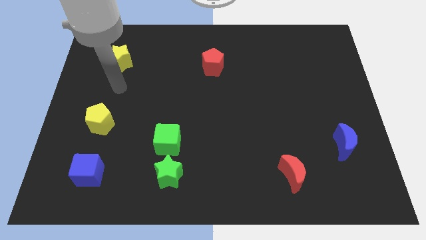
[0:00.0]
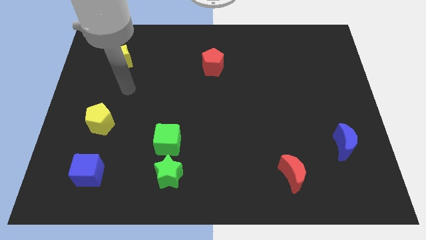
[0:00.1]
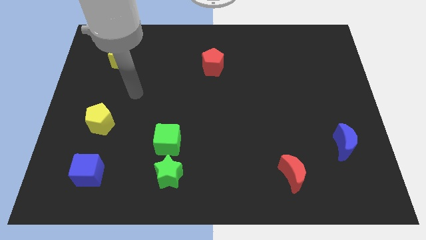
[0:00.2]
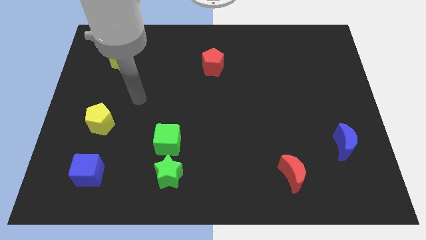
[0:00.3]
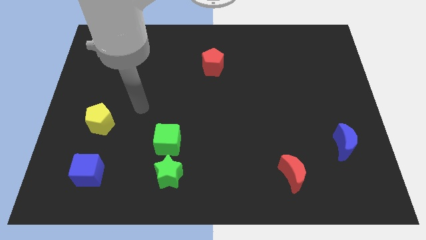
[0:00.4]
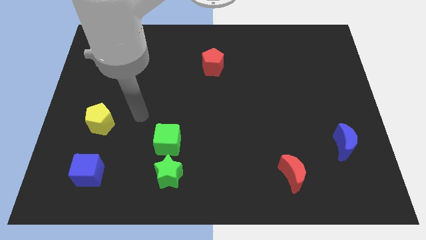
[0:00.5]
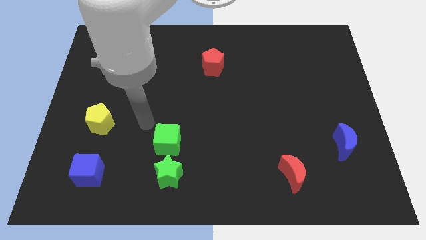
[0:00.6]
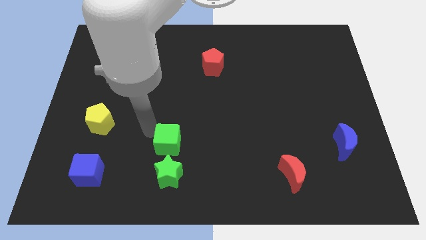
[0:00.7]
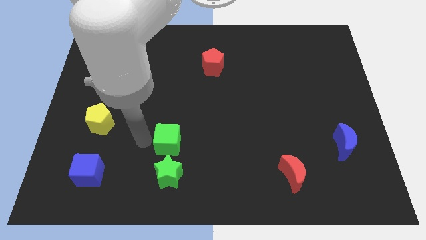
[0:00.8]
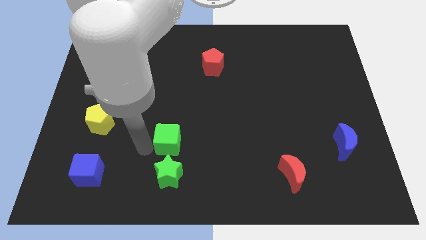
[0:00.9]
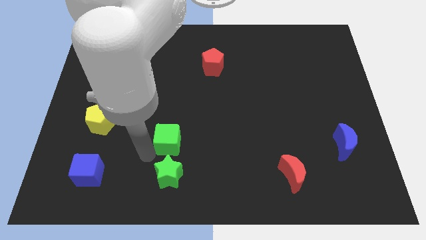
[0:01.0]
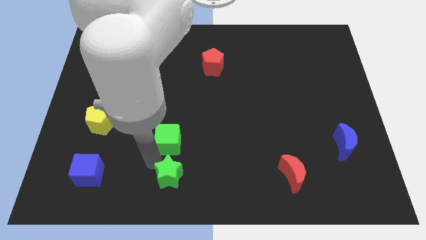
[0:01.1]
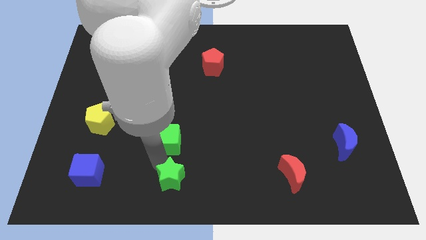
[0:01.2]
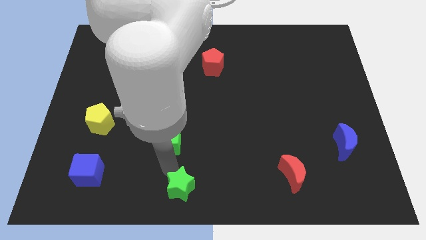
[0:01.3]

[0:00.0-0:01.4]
separate the green cube from the green star

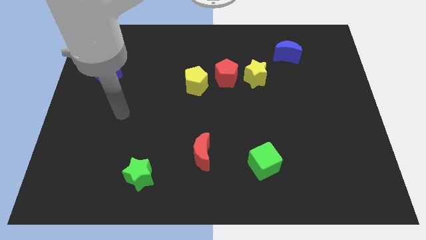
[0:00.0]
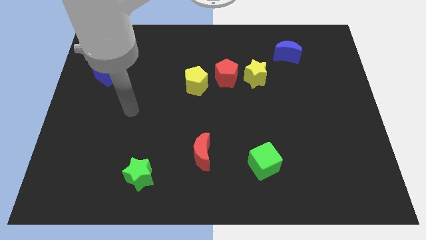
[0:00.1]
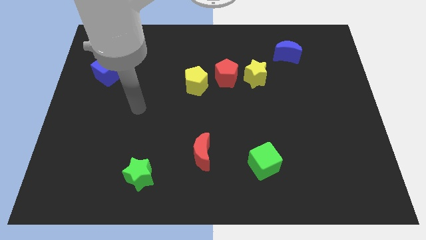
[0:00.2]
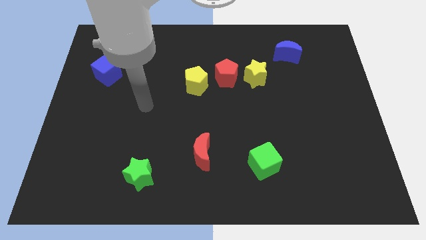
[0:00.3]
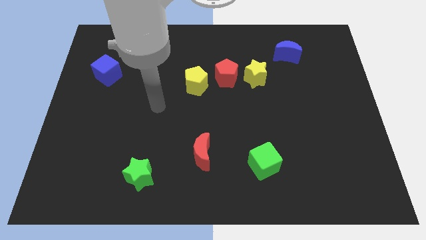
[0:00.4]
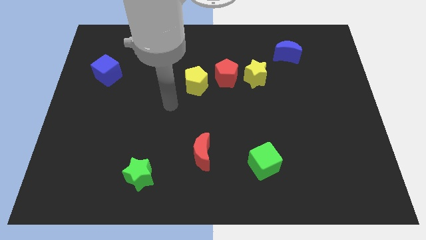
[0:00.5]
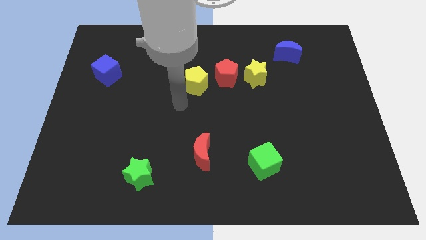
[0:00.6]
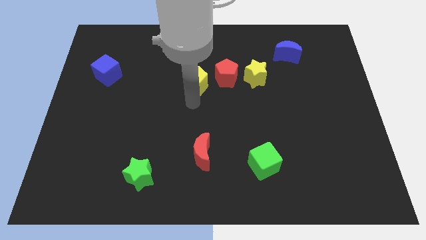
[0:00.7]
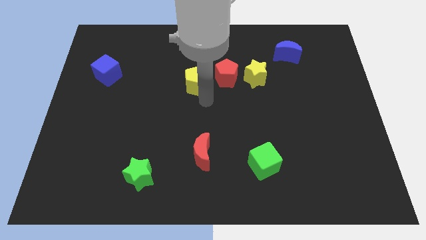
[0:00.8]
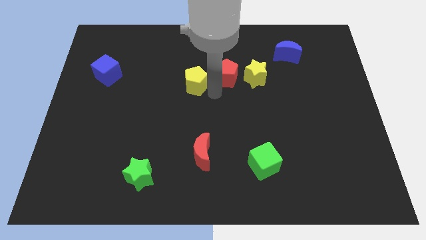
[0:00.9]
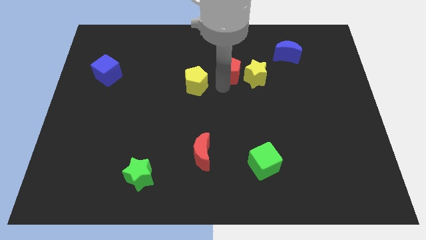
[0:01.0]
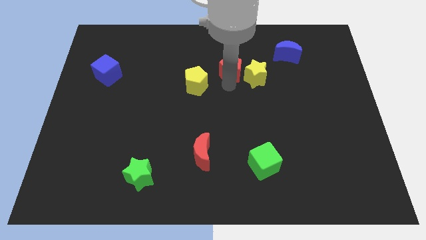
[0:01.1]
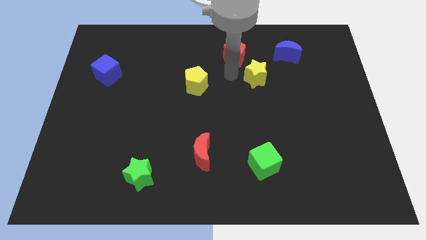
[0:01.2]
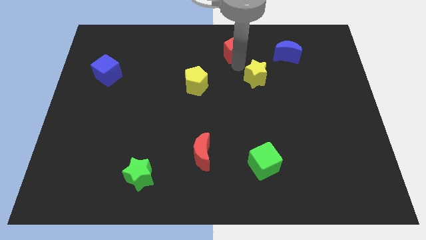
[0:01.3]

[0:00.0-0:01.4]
separate the yellow star from the red pentagon

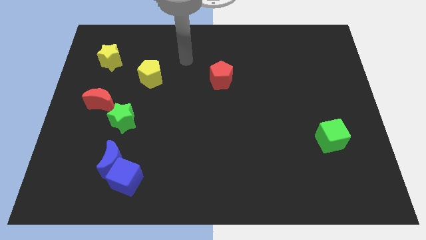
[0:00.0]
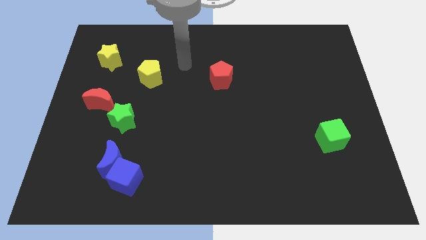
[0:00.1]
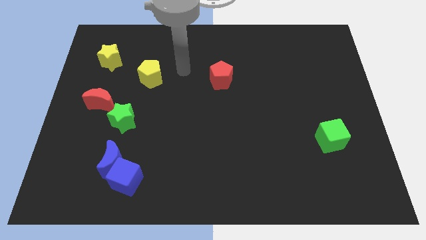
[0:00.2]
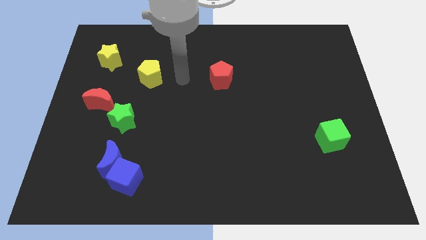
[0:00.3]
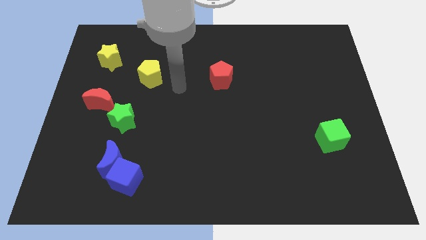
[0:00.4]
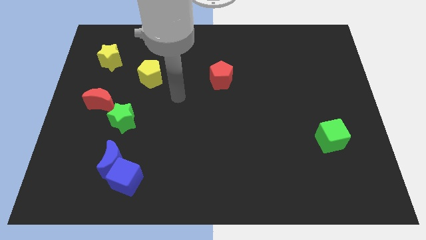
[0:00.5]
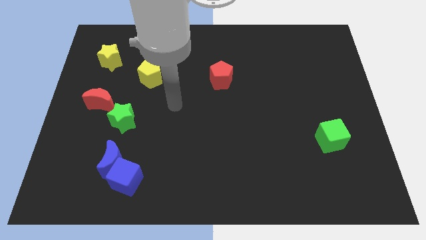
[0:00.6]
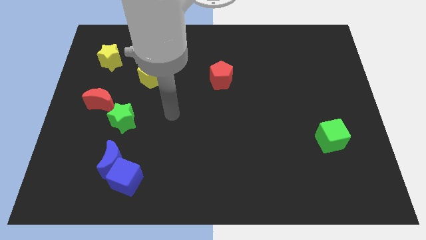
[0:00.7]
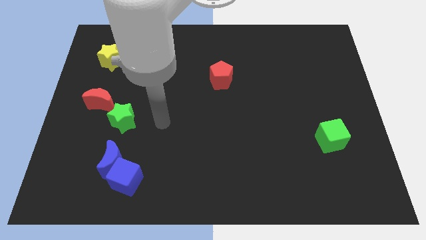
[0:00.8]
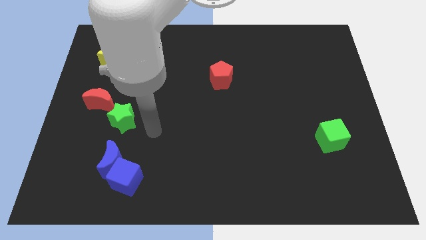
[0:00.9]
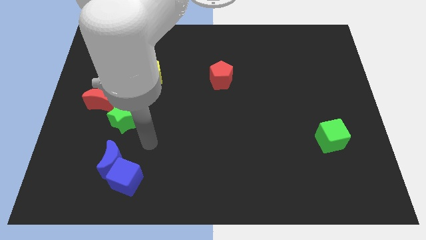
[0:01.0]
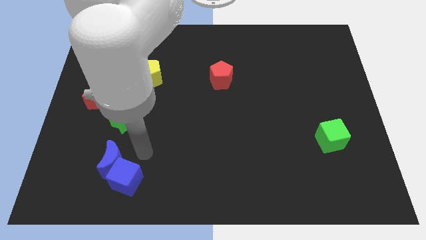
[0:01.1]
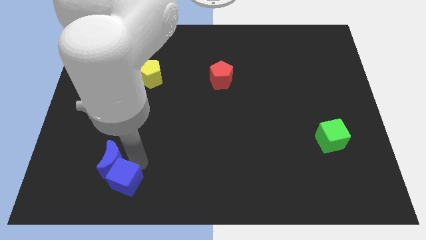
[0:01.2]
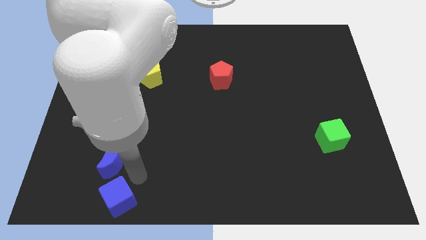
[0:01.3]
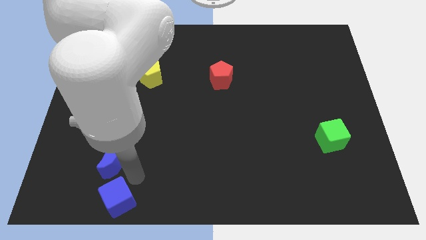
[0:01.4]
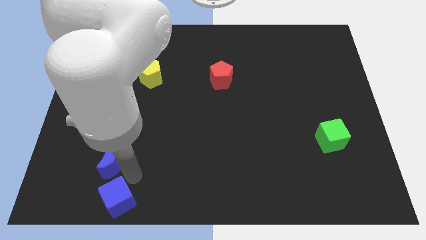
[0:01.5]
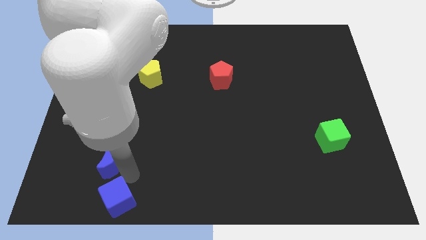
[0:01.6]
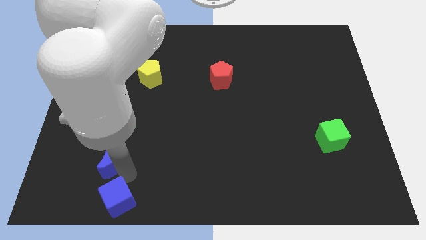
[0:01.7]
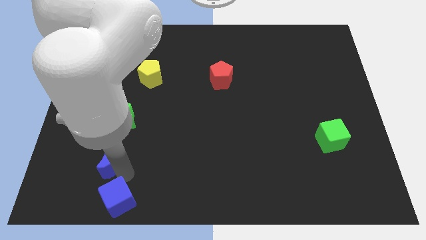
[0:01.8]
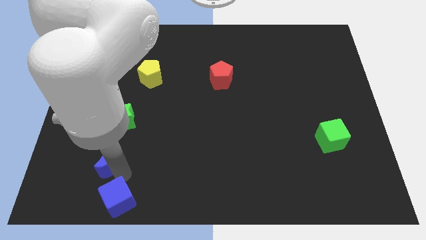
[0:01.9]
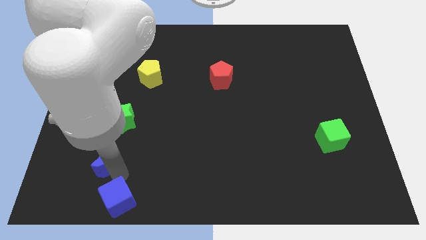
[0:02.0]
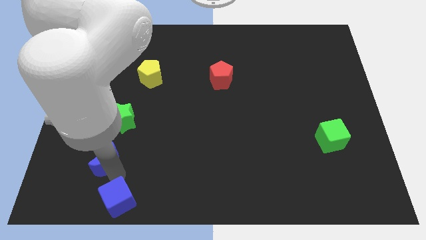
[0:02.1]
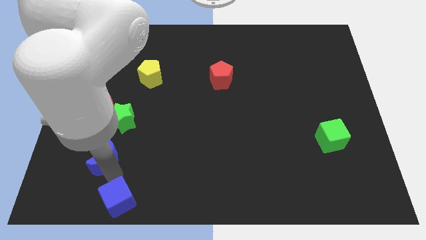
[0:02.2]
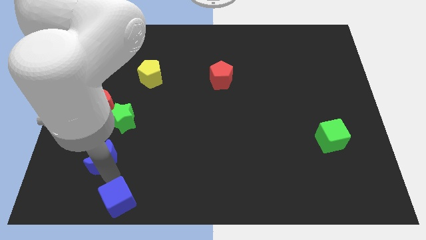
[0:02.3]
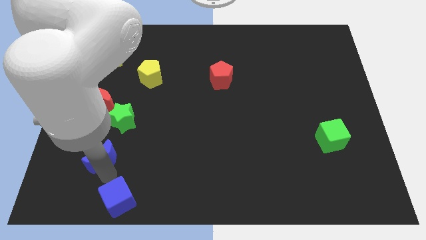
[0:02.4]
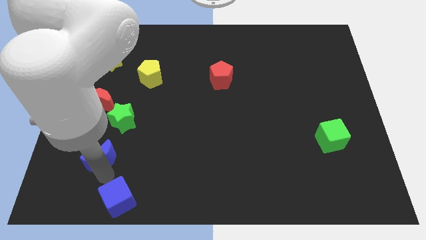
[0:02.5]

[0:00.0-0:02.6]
separate the blue moon from the blue cube

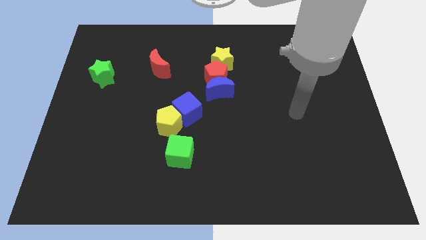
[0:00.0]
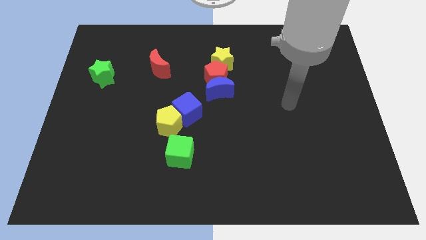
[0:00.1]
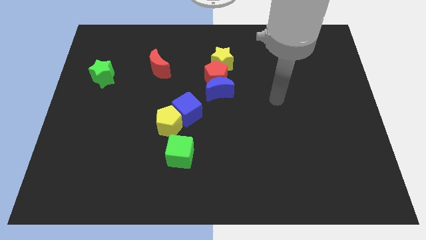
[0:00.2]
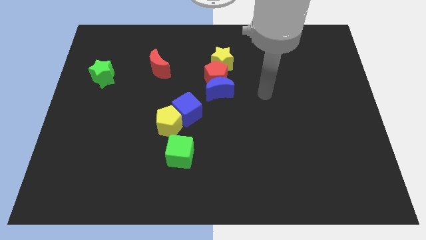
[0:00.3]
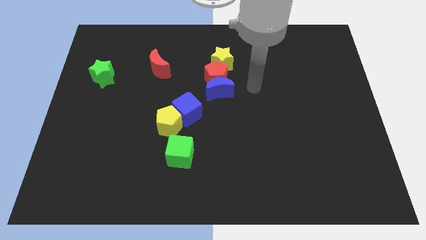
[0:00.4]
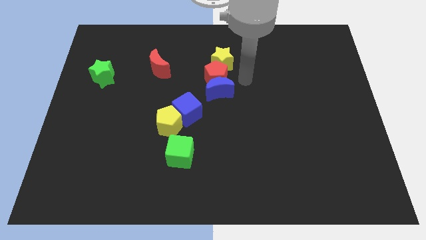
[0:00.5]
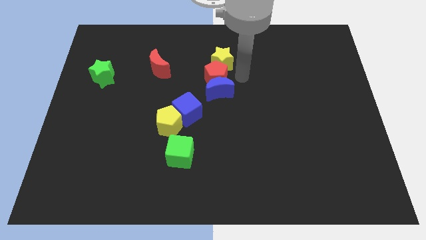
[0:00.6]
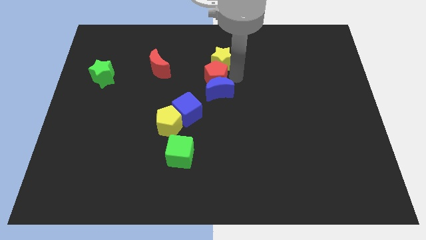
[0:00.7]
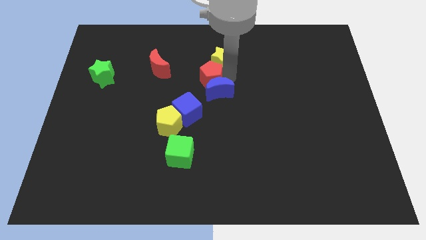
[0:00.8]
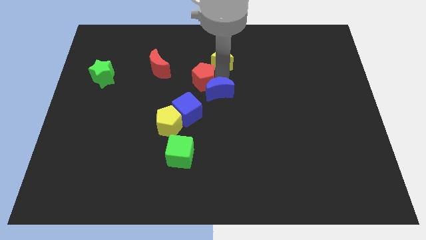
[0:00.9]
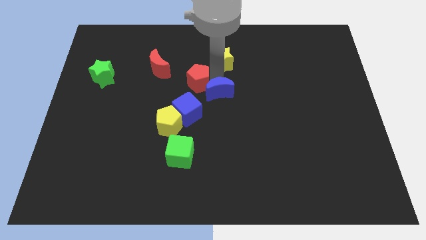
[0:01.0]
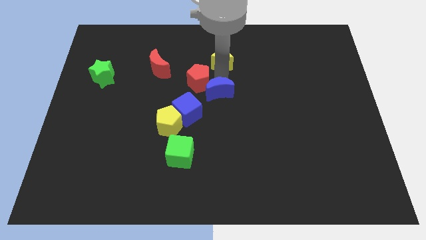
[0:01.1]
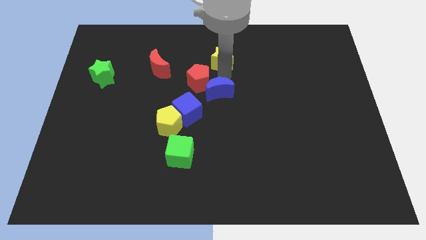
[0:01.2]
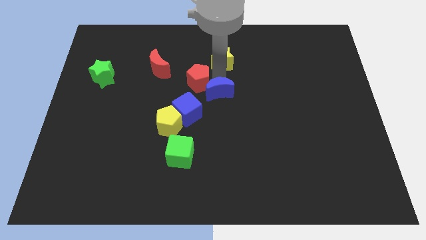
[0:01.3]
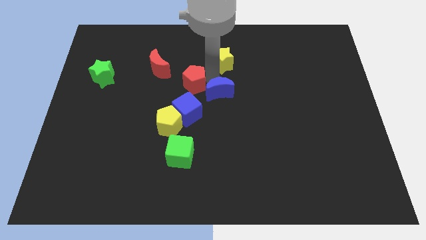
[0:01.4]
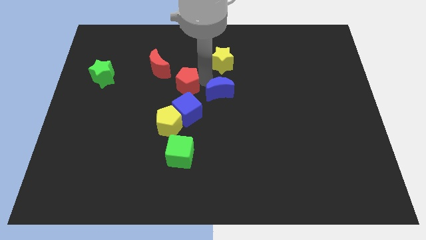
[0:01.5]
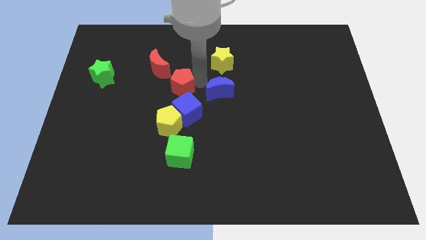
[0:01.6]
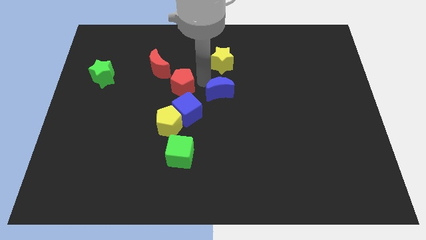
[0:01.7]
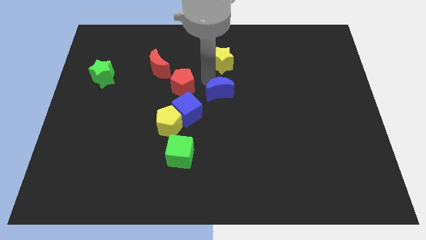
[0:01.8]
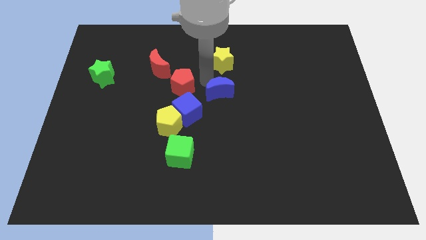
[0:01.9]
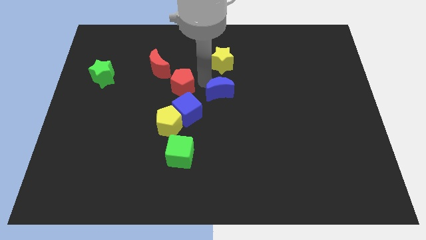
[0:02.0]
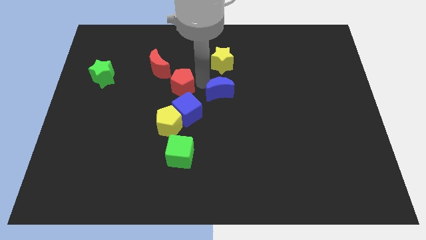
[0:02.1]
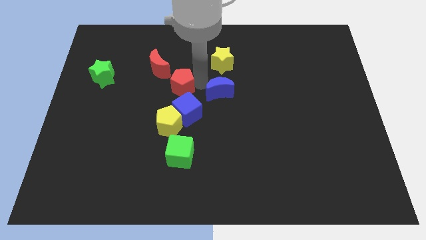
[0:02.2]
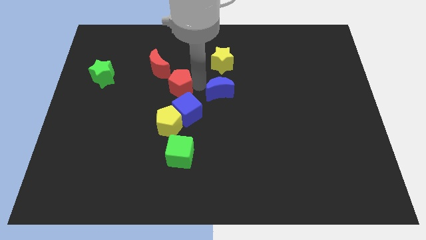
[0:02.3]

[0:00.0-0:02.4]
pull the red pentagon apart from the blue moon and yellow star

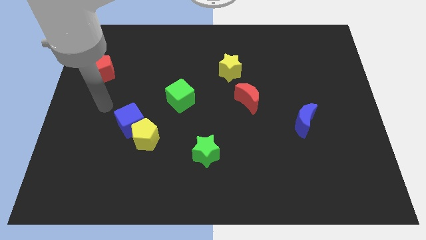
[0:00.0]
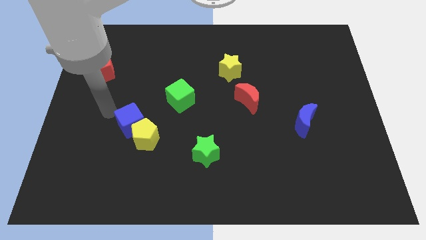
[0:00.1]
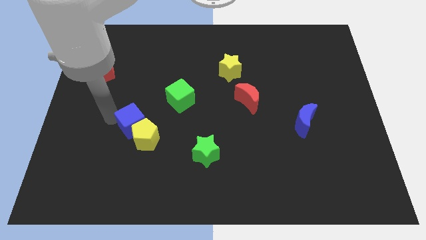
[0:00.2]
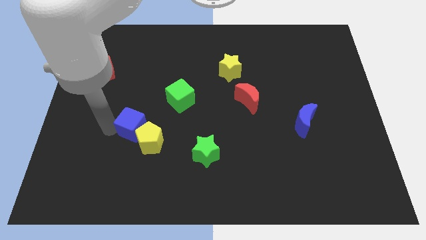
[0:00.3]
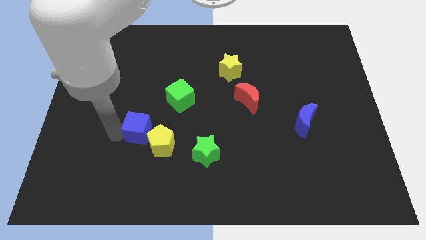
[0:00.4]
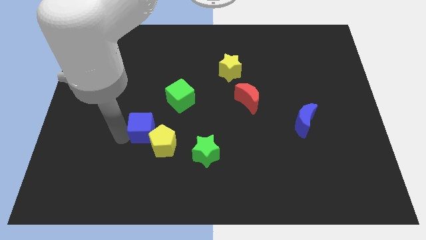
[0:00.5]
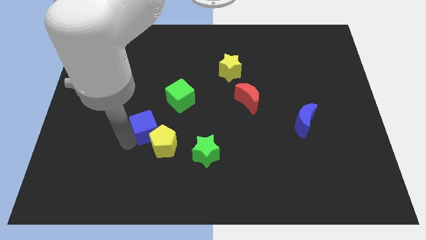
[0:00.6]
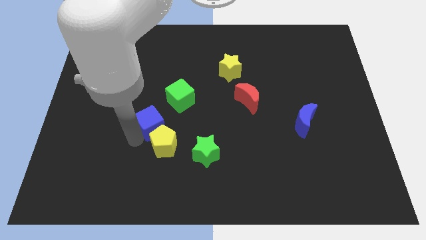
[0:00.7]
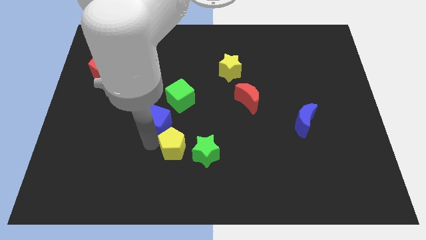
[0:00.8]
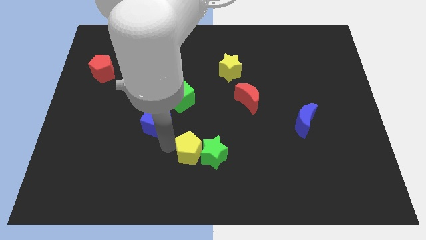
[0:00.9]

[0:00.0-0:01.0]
move the blue cube away from the yellow pentagon

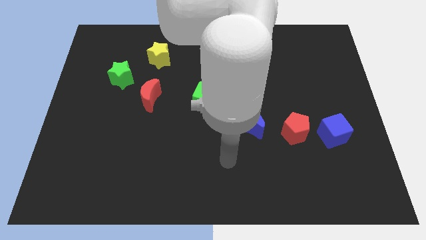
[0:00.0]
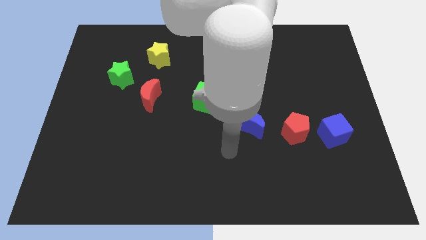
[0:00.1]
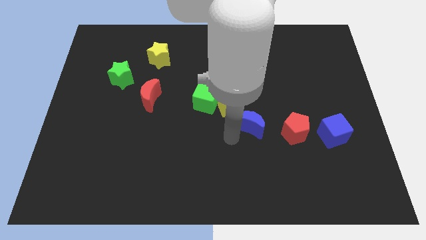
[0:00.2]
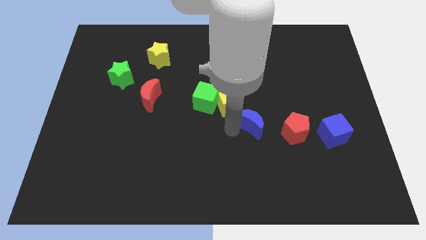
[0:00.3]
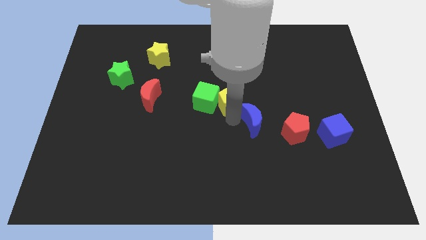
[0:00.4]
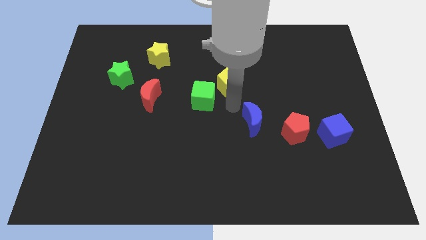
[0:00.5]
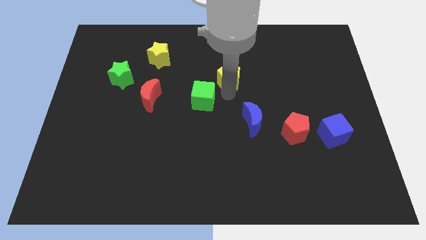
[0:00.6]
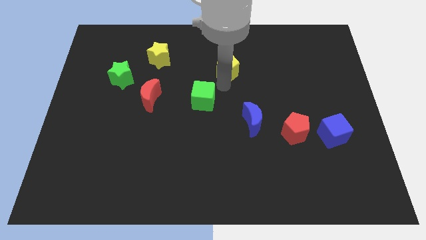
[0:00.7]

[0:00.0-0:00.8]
separate the green cube from the yellow pentagon
